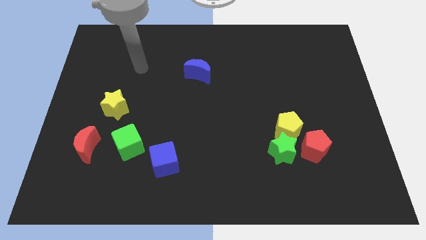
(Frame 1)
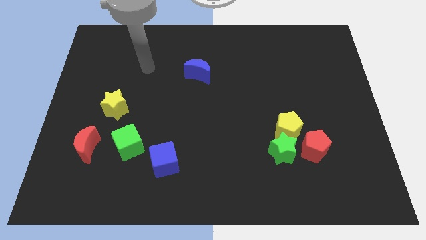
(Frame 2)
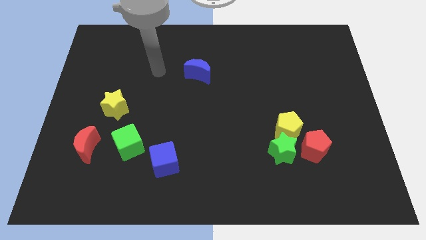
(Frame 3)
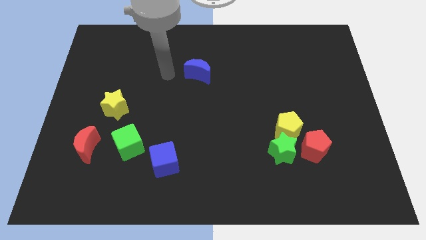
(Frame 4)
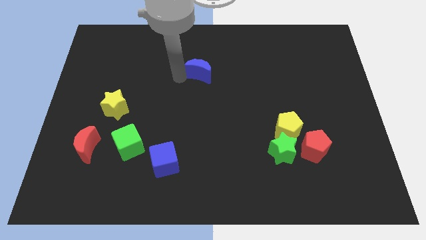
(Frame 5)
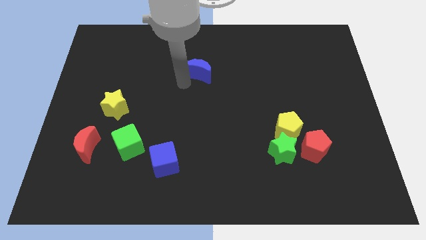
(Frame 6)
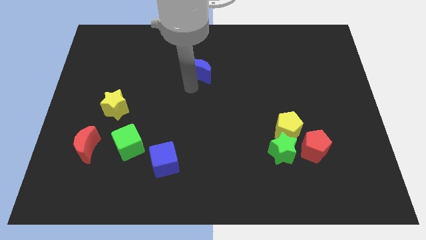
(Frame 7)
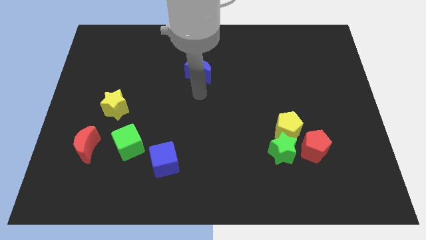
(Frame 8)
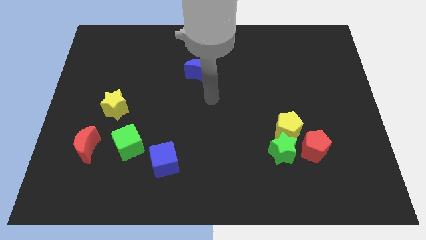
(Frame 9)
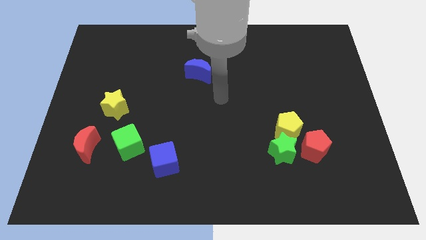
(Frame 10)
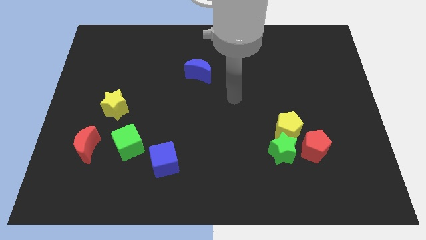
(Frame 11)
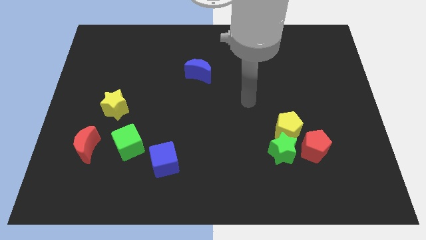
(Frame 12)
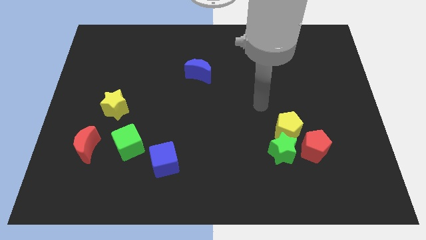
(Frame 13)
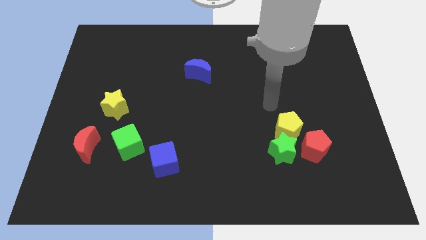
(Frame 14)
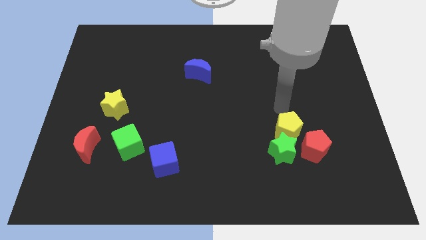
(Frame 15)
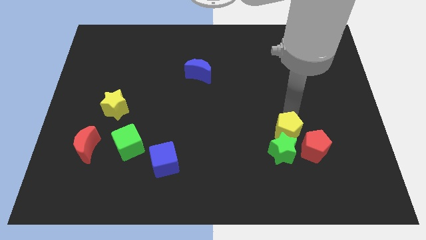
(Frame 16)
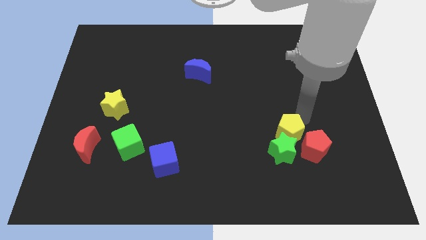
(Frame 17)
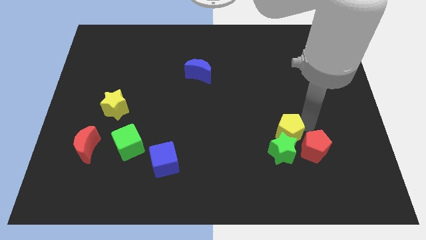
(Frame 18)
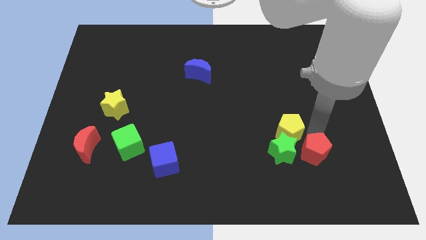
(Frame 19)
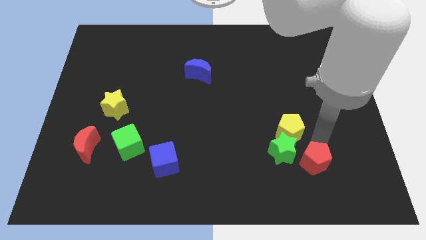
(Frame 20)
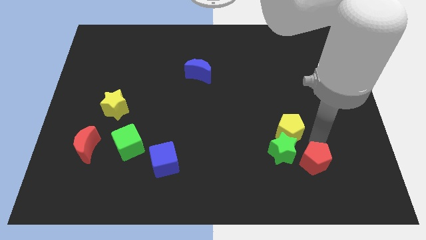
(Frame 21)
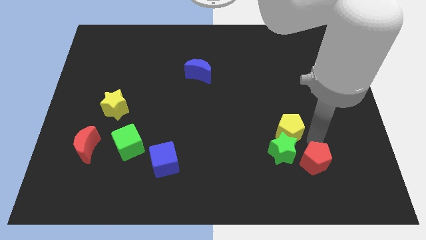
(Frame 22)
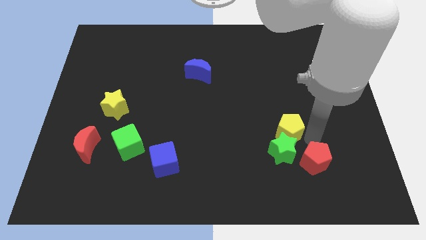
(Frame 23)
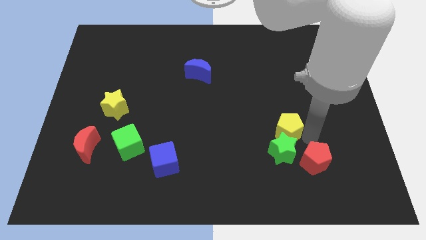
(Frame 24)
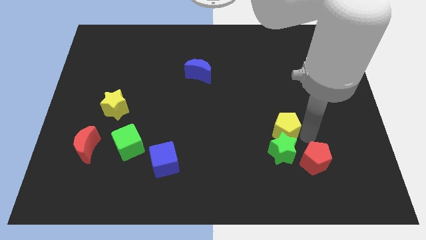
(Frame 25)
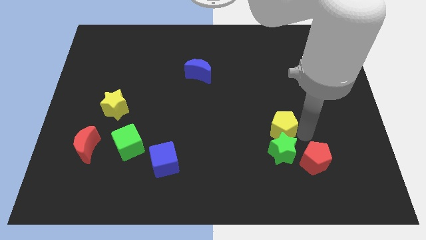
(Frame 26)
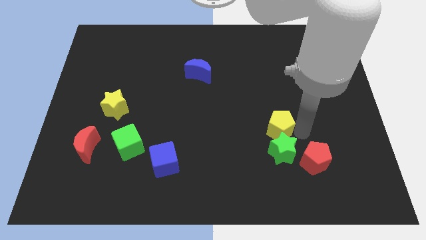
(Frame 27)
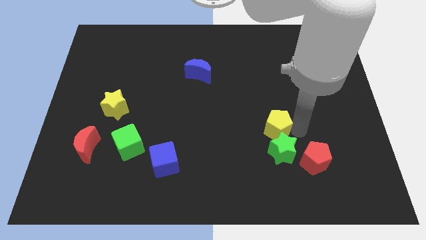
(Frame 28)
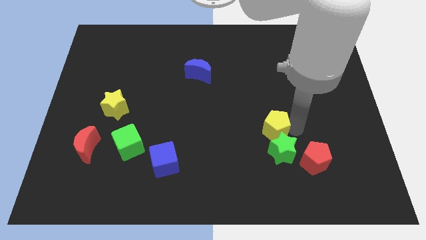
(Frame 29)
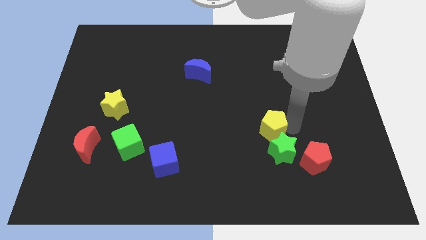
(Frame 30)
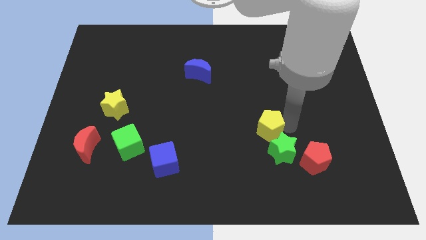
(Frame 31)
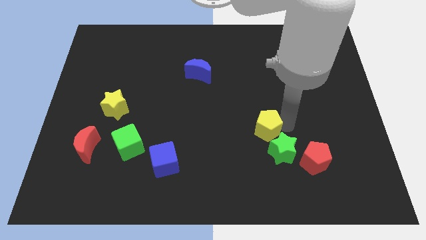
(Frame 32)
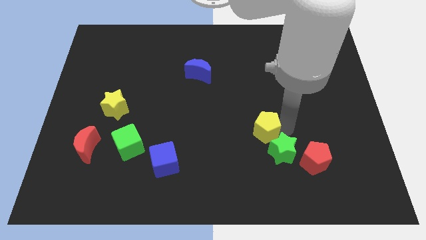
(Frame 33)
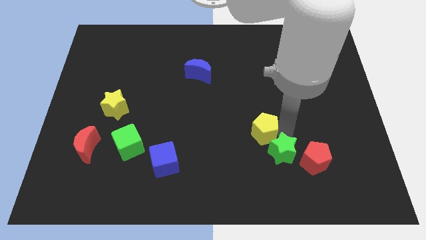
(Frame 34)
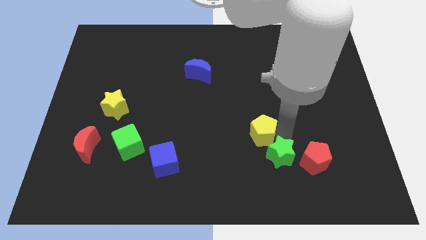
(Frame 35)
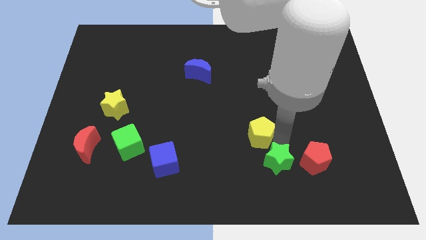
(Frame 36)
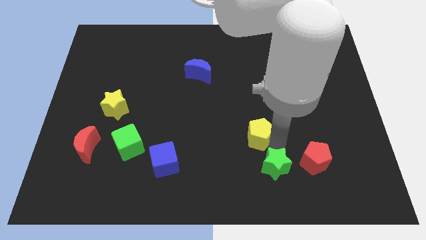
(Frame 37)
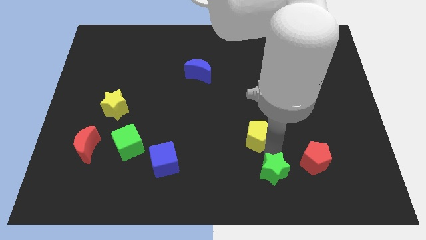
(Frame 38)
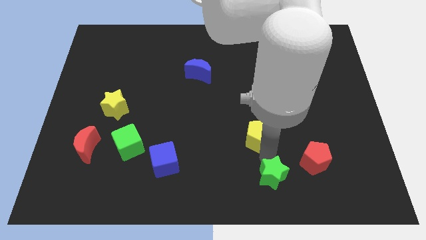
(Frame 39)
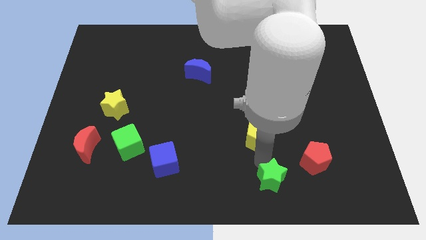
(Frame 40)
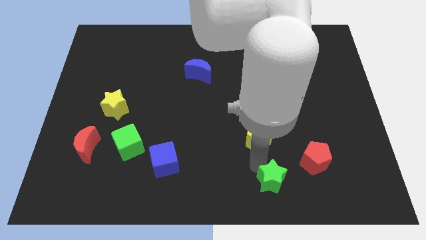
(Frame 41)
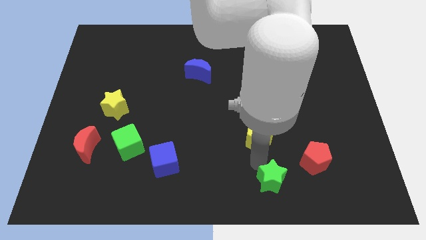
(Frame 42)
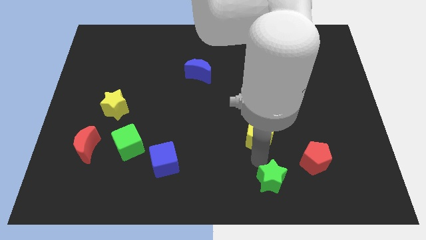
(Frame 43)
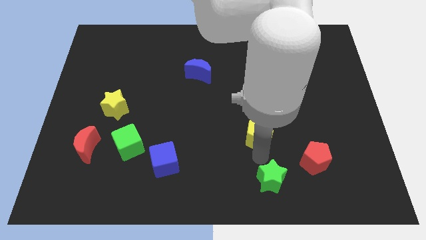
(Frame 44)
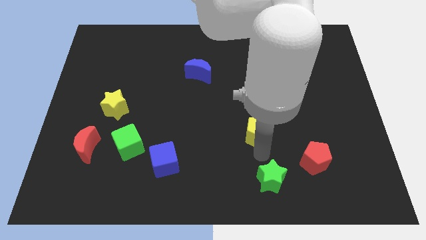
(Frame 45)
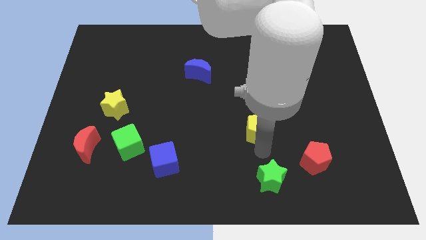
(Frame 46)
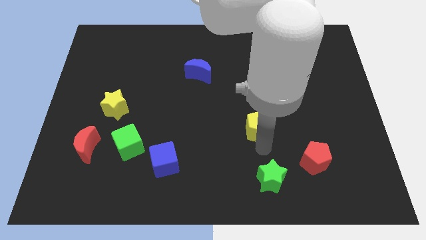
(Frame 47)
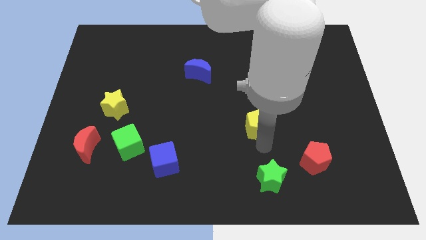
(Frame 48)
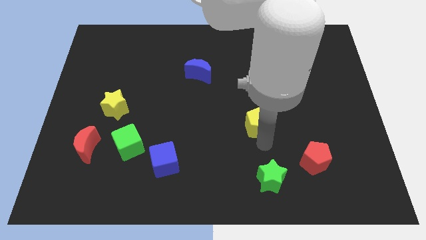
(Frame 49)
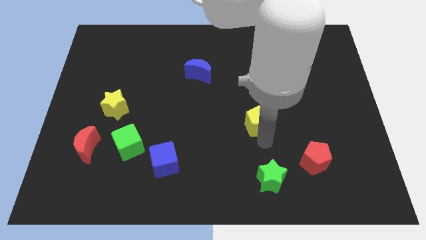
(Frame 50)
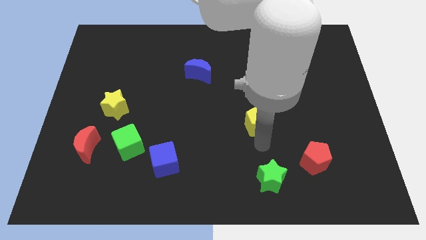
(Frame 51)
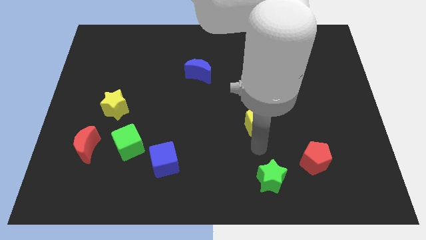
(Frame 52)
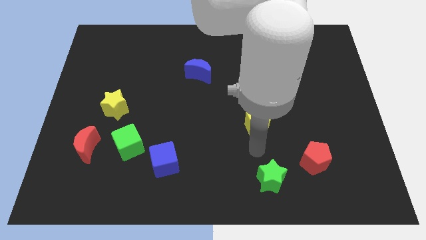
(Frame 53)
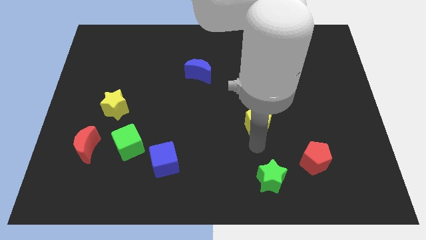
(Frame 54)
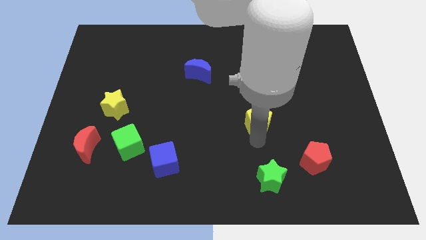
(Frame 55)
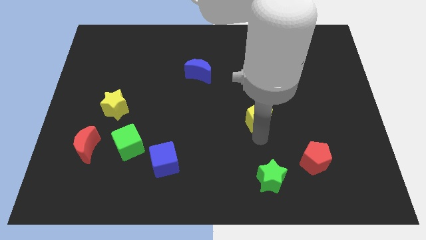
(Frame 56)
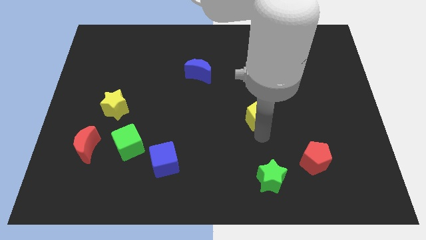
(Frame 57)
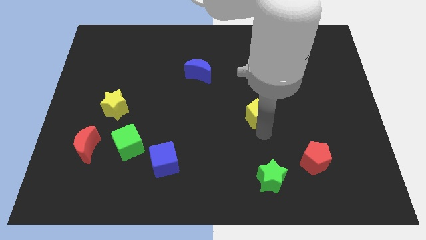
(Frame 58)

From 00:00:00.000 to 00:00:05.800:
move the yellow pentagon upwards and to the left diagonally a little bit

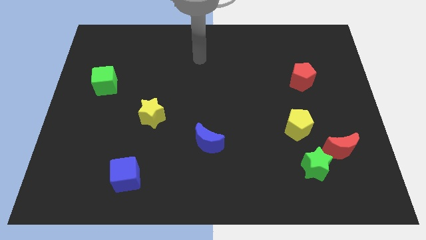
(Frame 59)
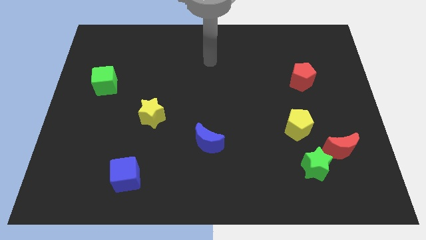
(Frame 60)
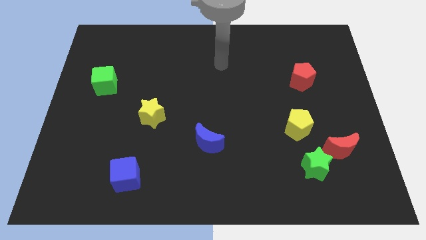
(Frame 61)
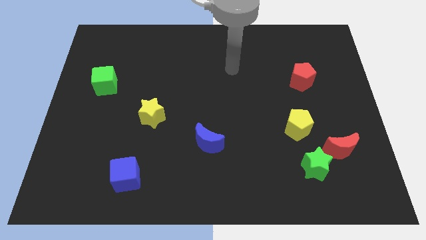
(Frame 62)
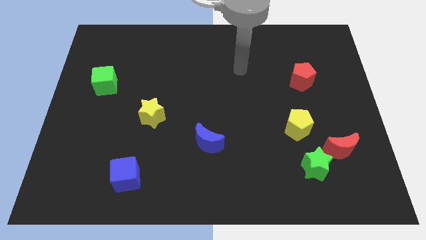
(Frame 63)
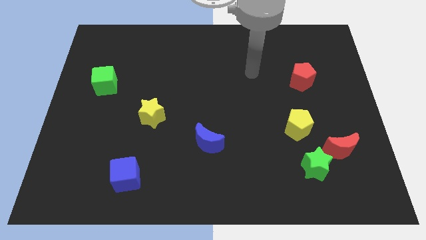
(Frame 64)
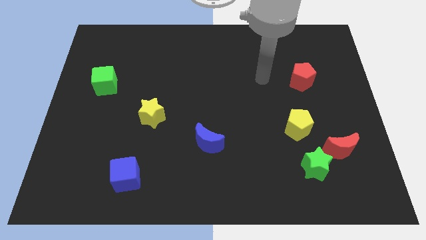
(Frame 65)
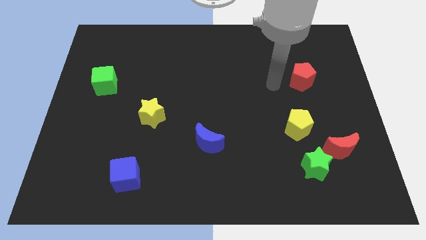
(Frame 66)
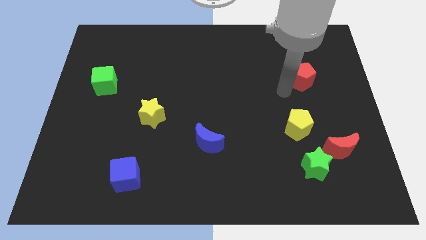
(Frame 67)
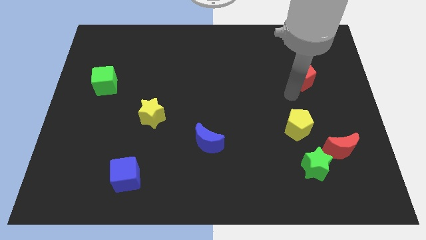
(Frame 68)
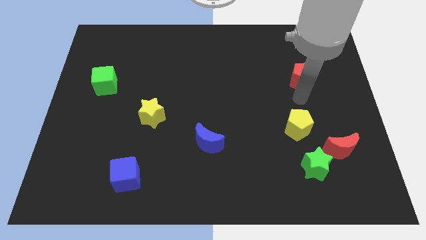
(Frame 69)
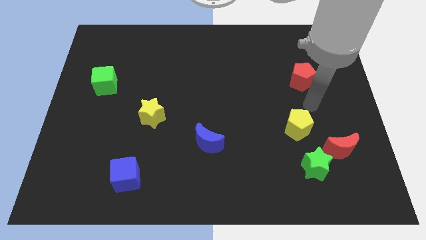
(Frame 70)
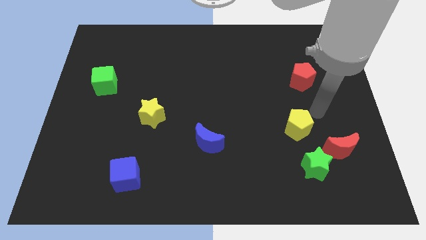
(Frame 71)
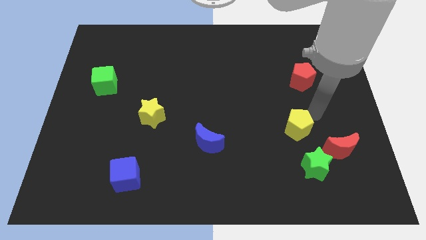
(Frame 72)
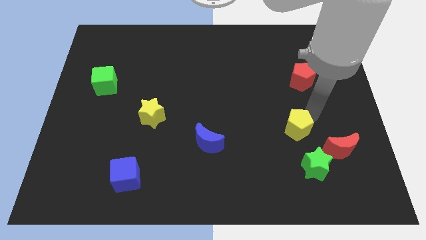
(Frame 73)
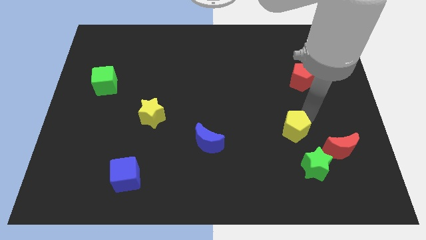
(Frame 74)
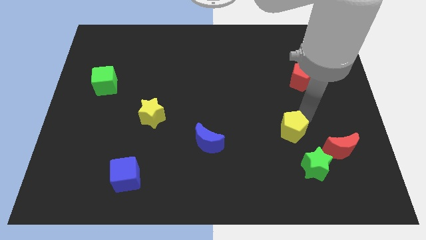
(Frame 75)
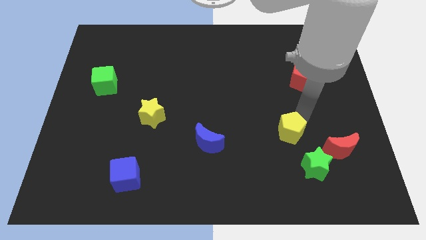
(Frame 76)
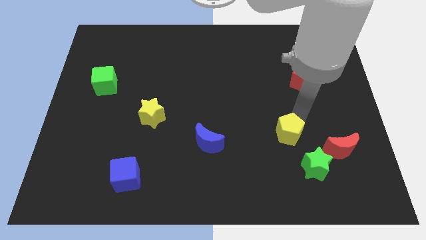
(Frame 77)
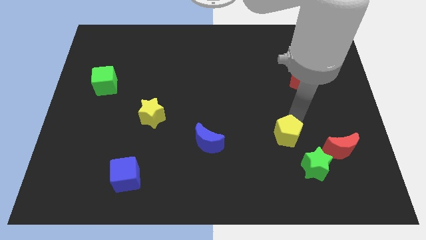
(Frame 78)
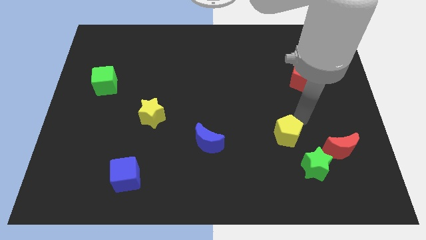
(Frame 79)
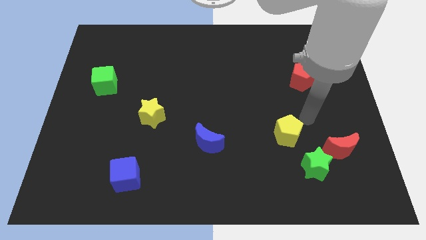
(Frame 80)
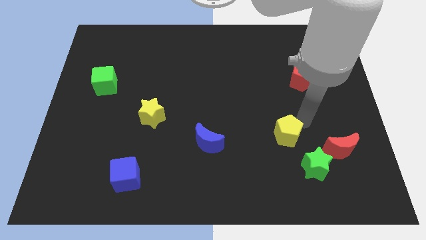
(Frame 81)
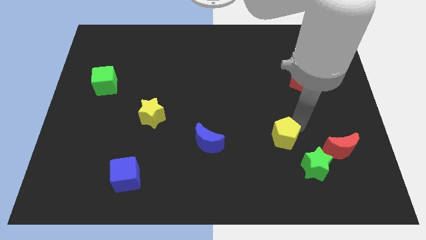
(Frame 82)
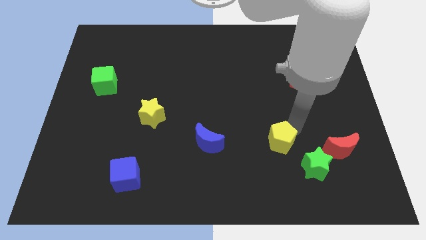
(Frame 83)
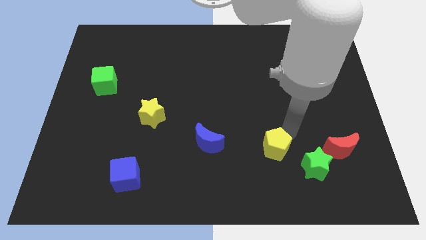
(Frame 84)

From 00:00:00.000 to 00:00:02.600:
slide the yellow pentagon a little bit down and left
